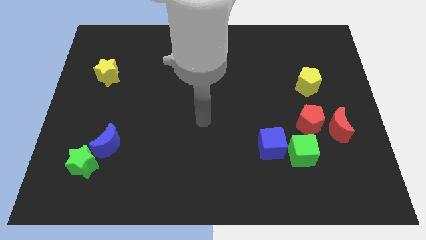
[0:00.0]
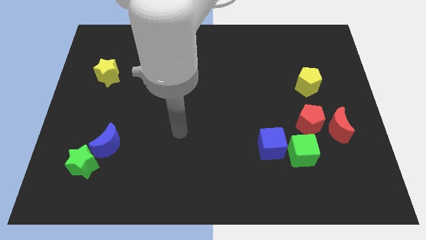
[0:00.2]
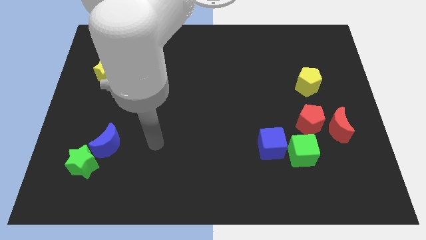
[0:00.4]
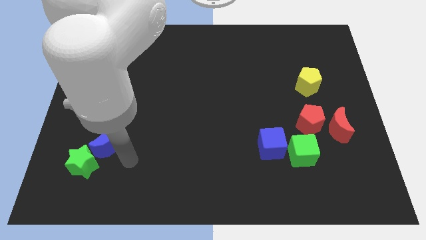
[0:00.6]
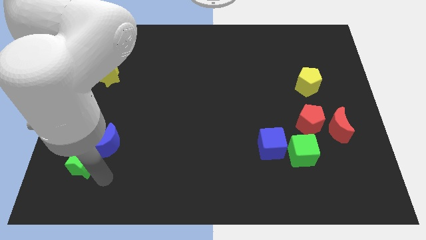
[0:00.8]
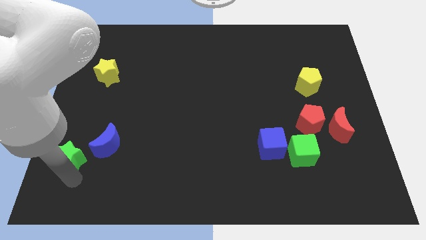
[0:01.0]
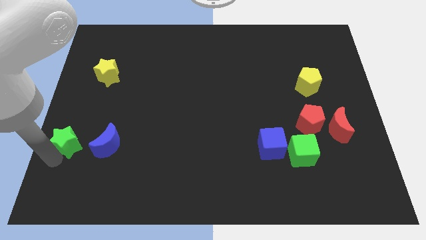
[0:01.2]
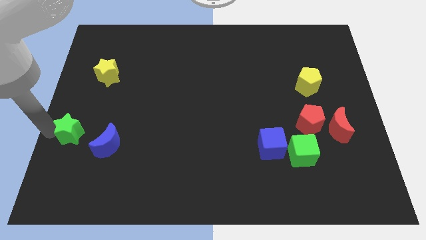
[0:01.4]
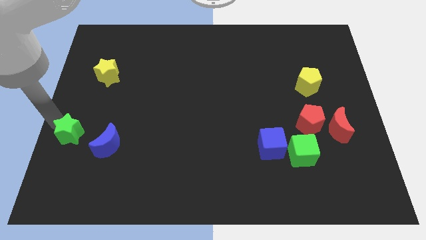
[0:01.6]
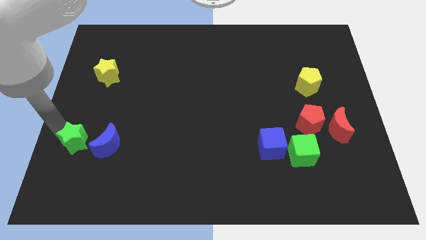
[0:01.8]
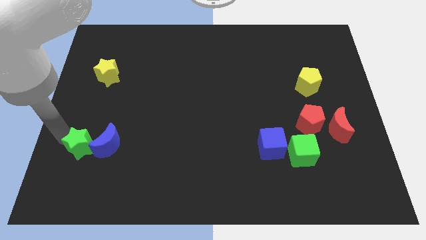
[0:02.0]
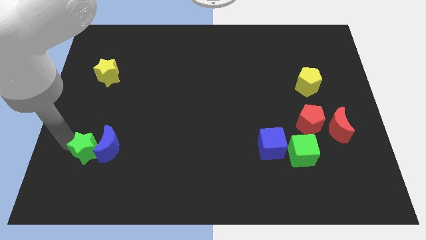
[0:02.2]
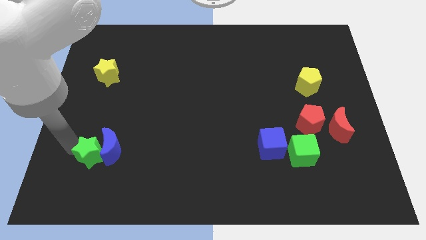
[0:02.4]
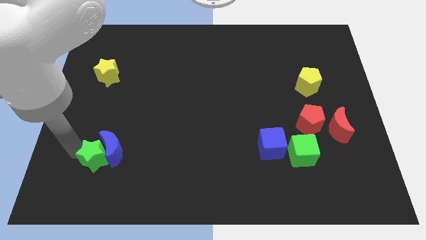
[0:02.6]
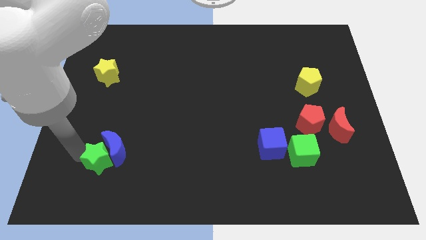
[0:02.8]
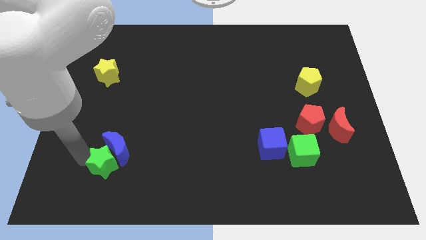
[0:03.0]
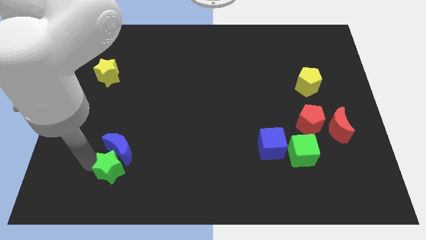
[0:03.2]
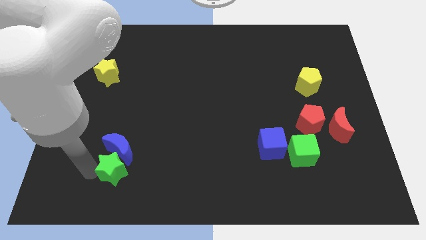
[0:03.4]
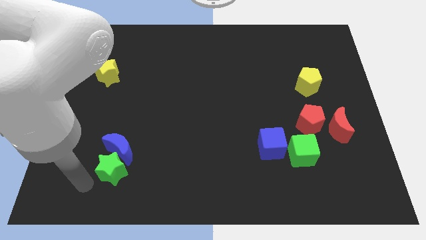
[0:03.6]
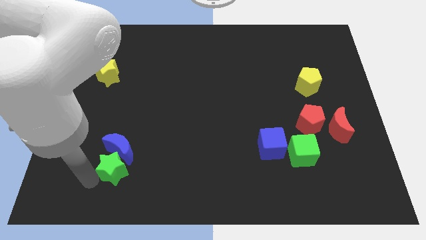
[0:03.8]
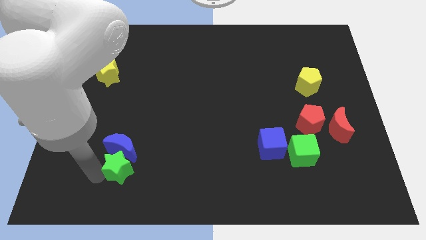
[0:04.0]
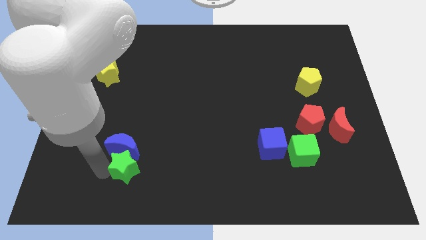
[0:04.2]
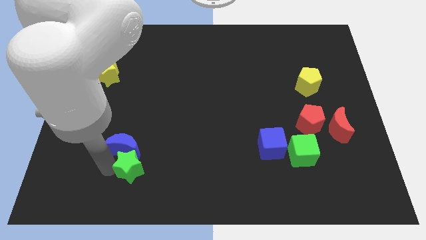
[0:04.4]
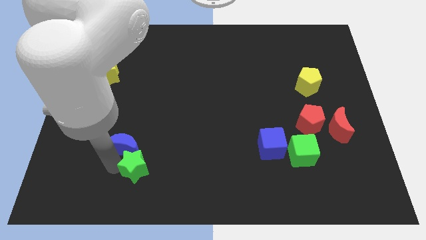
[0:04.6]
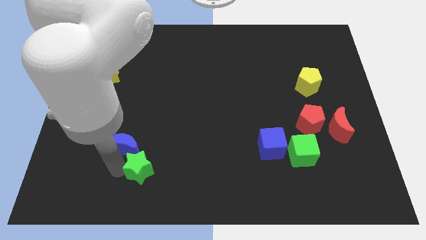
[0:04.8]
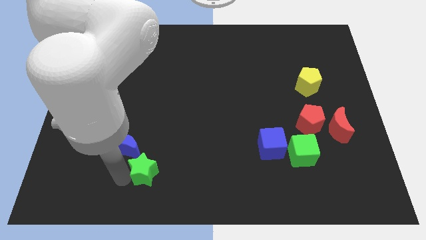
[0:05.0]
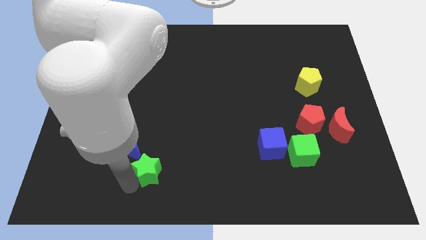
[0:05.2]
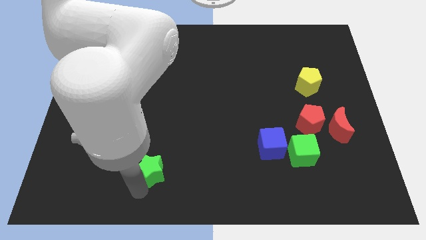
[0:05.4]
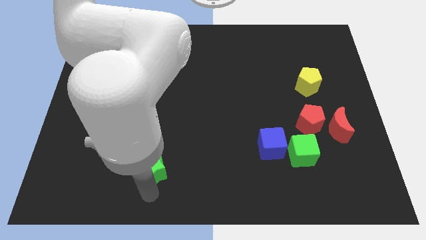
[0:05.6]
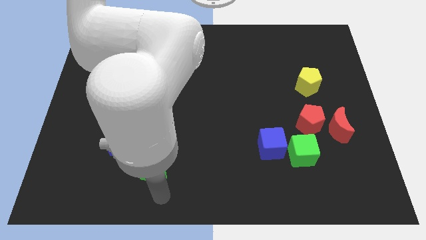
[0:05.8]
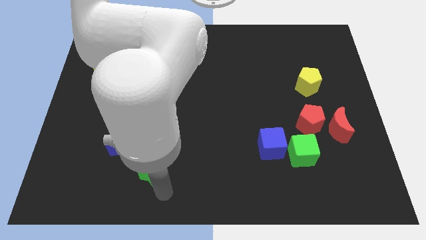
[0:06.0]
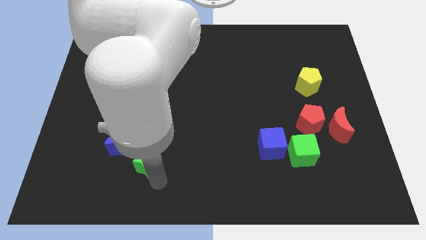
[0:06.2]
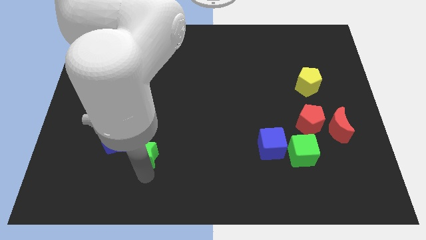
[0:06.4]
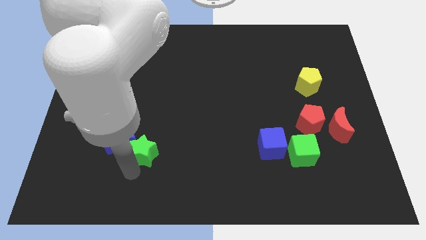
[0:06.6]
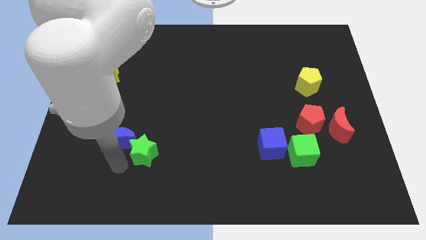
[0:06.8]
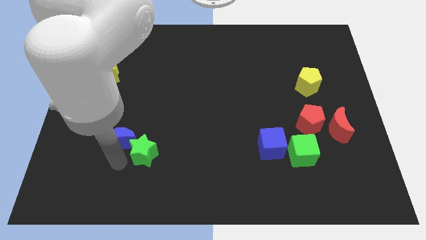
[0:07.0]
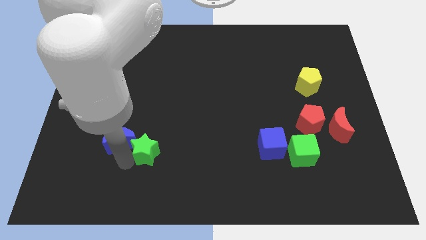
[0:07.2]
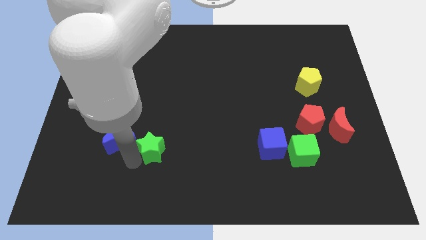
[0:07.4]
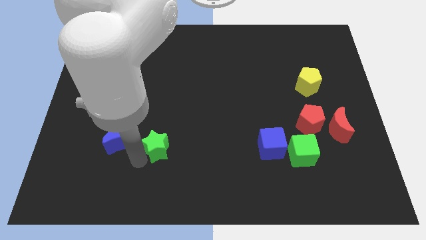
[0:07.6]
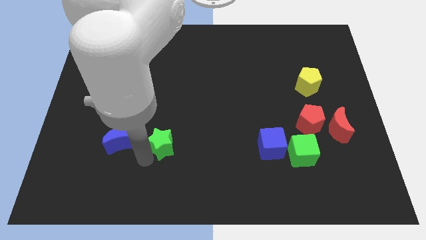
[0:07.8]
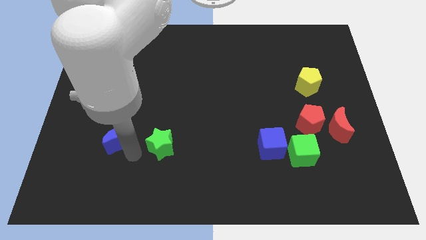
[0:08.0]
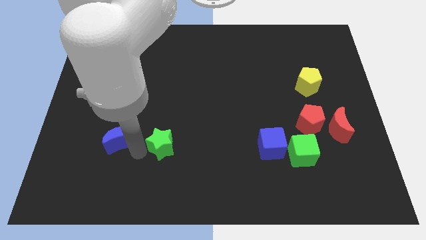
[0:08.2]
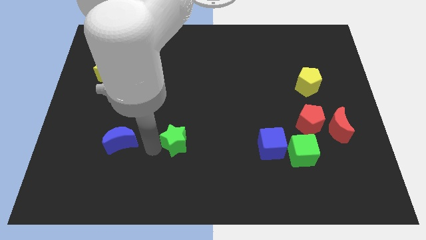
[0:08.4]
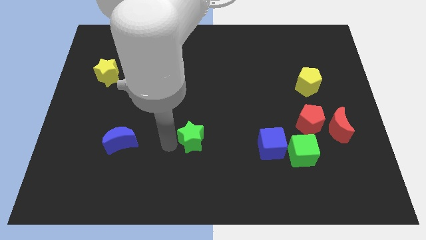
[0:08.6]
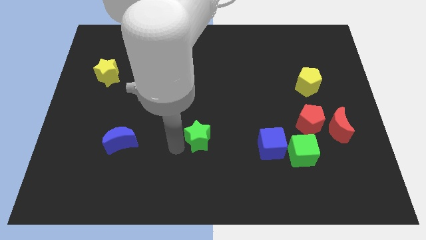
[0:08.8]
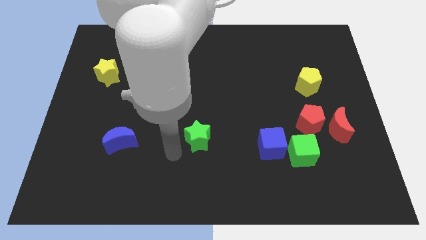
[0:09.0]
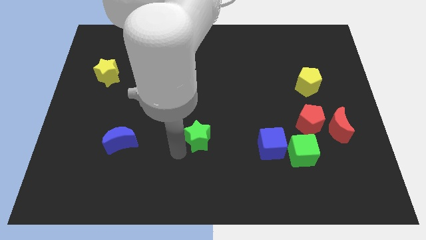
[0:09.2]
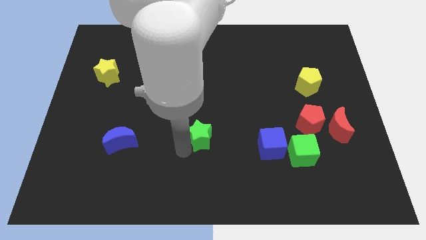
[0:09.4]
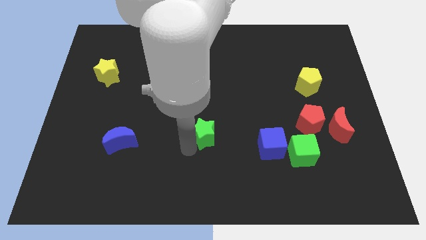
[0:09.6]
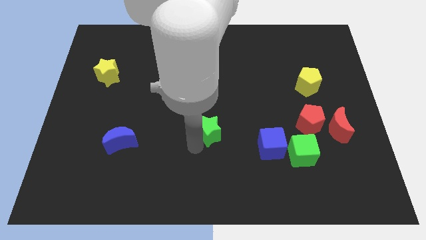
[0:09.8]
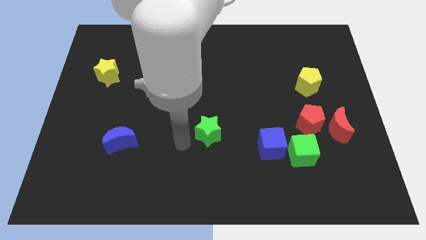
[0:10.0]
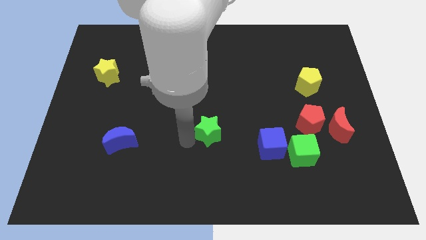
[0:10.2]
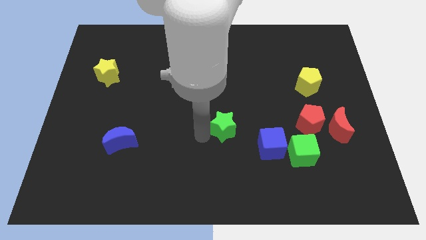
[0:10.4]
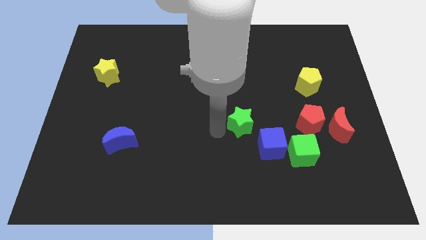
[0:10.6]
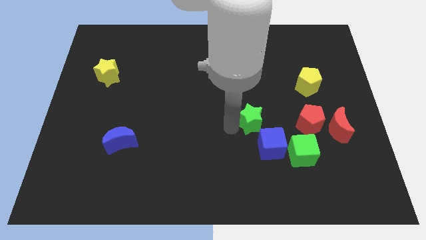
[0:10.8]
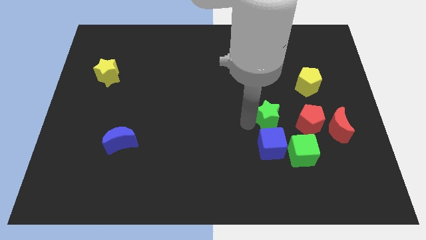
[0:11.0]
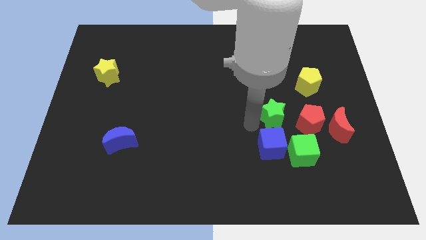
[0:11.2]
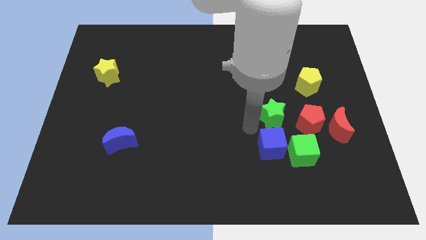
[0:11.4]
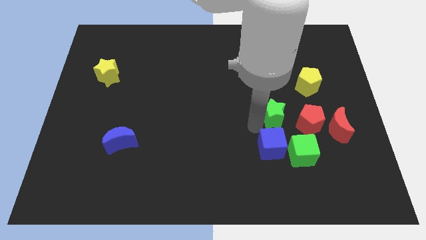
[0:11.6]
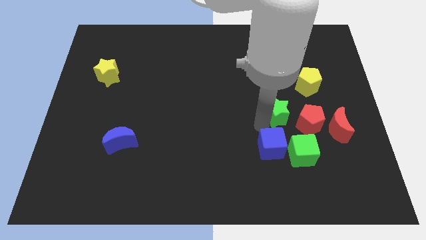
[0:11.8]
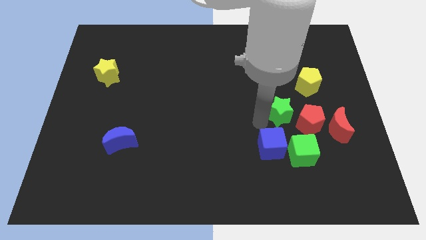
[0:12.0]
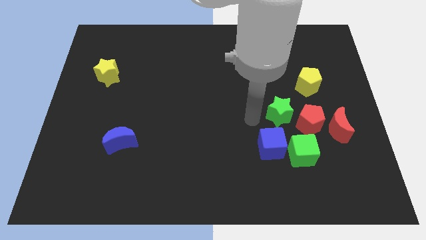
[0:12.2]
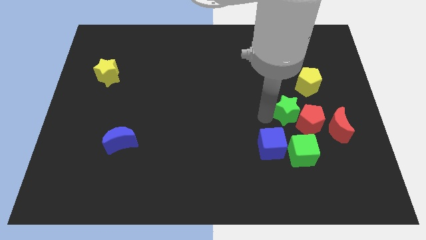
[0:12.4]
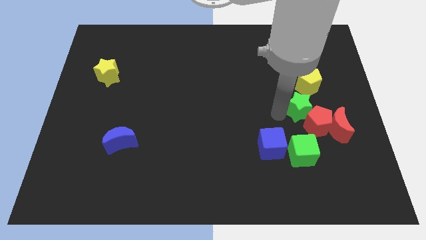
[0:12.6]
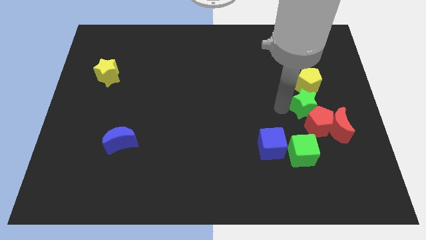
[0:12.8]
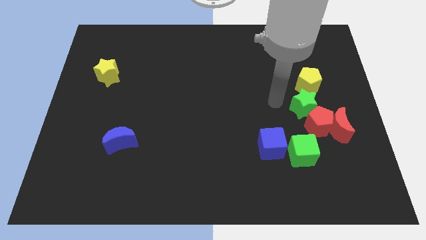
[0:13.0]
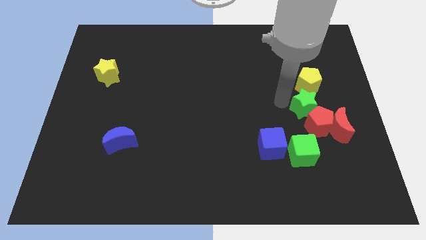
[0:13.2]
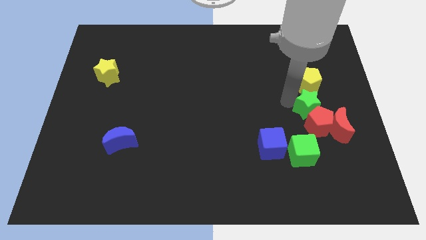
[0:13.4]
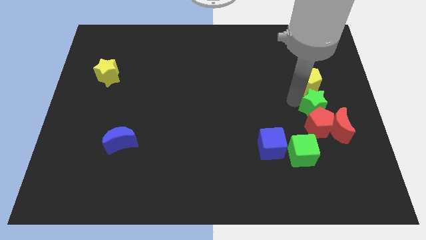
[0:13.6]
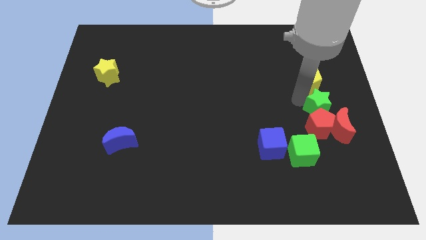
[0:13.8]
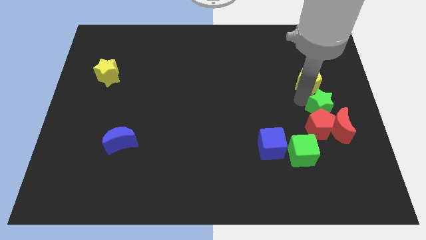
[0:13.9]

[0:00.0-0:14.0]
move the green star to the right side
